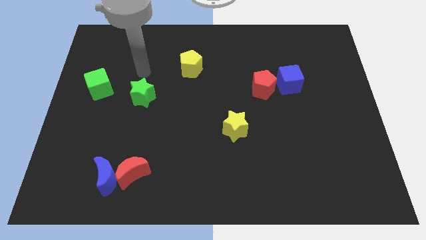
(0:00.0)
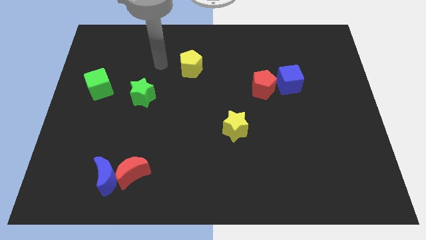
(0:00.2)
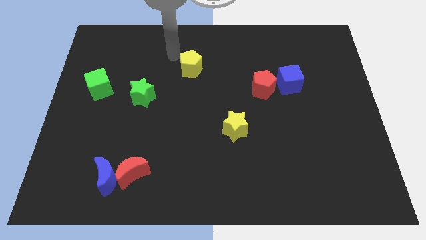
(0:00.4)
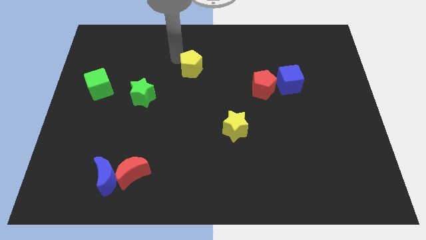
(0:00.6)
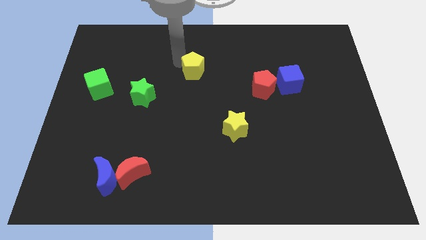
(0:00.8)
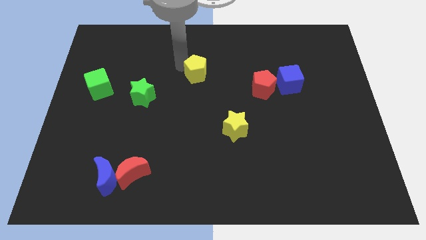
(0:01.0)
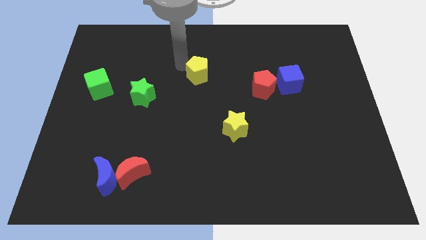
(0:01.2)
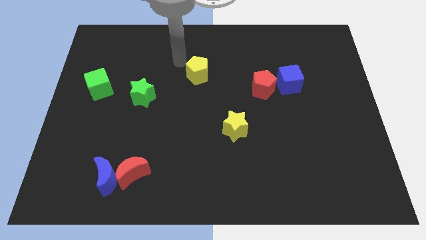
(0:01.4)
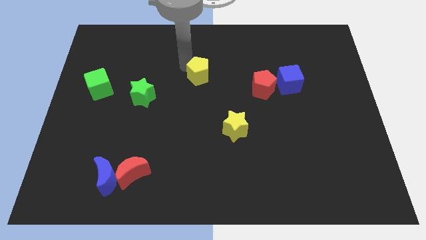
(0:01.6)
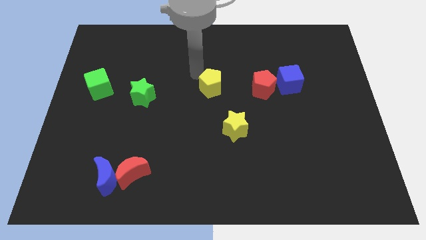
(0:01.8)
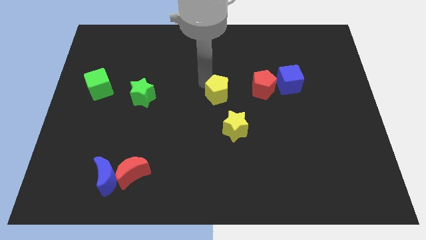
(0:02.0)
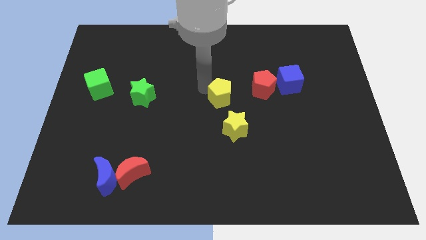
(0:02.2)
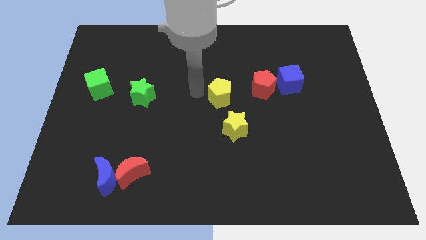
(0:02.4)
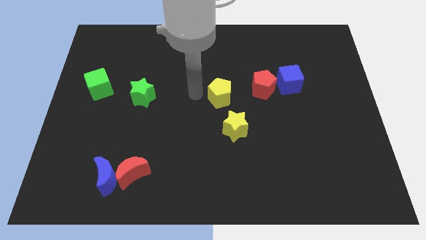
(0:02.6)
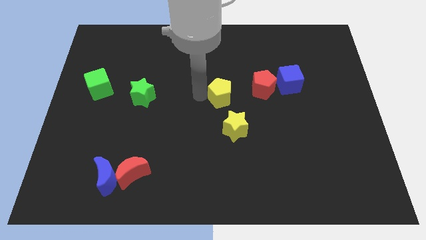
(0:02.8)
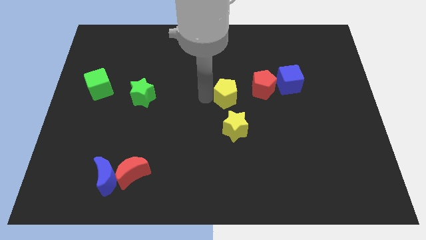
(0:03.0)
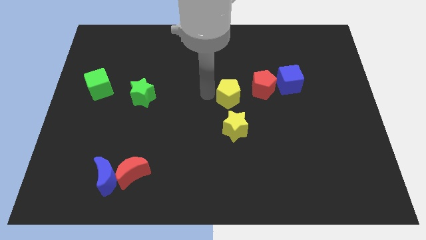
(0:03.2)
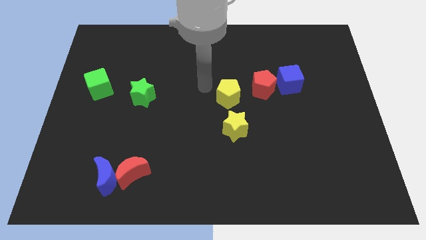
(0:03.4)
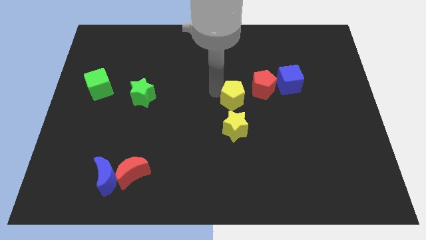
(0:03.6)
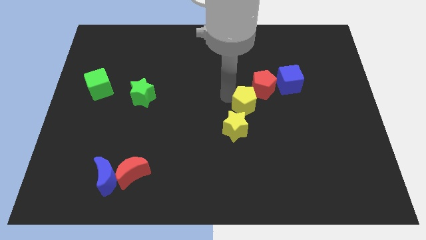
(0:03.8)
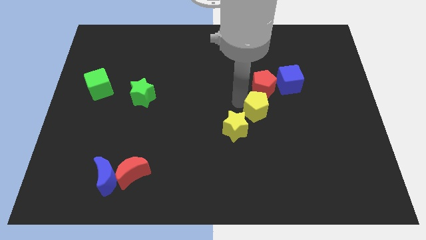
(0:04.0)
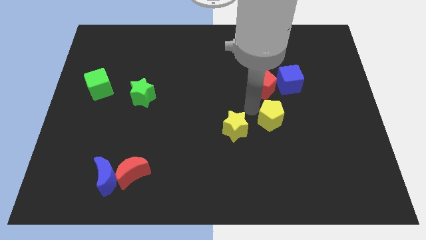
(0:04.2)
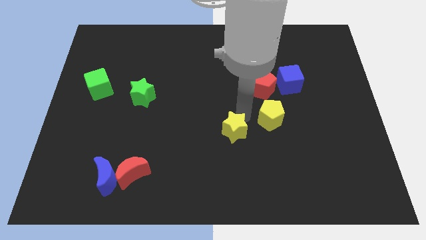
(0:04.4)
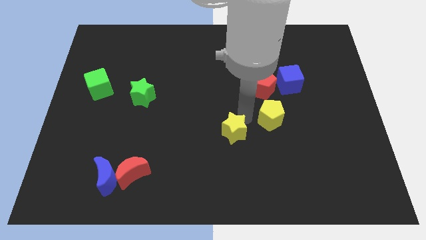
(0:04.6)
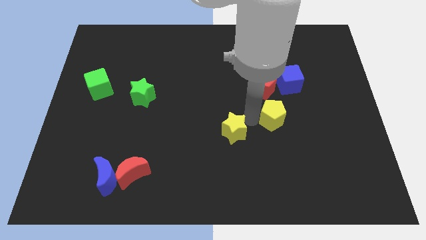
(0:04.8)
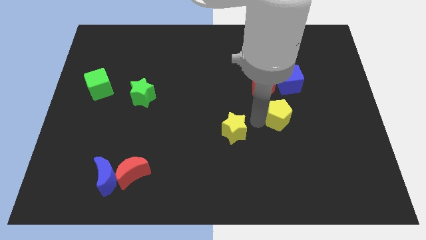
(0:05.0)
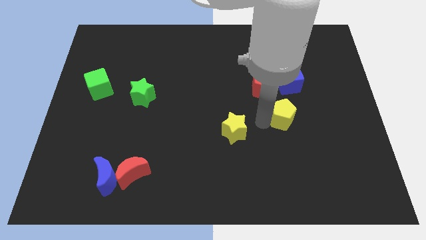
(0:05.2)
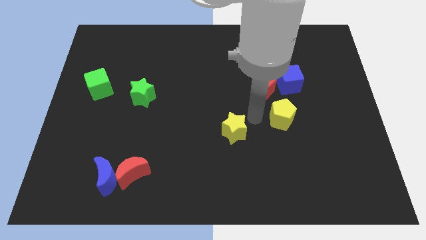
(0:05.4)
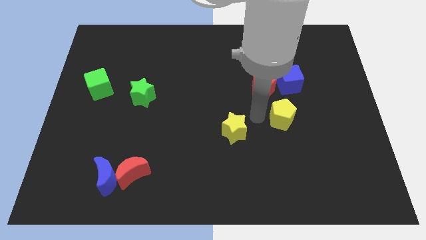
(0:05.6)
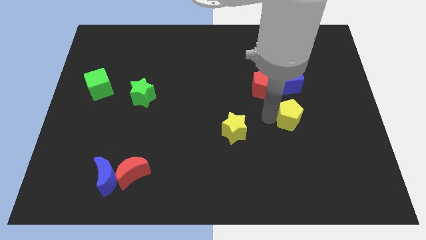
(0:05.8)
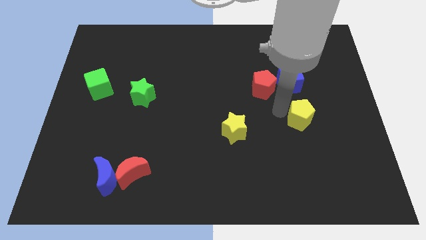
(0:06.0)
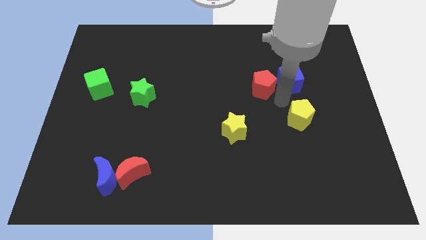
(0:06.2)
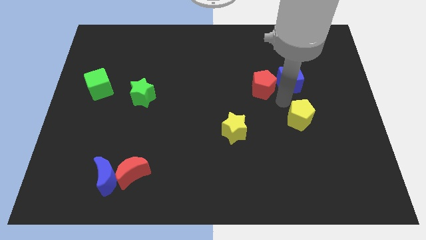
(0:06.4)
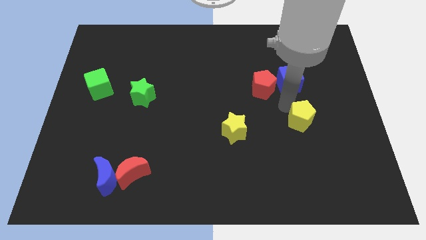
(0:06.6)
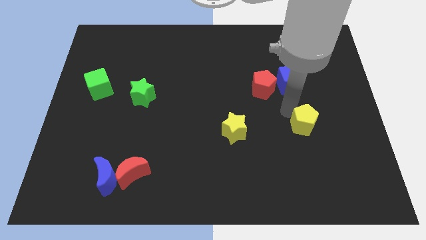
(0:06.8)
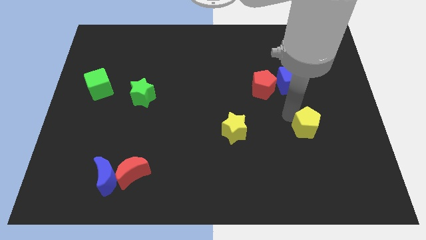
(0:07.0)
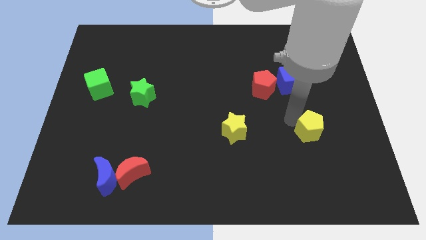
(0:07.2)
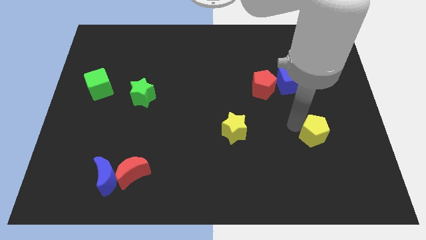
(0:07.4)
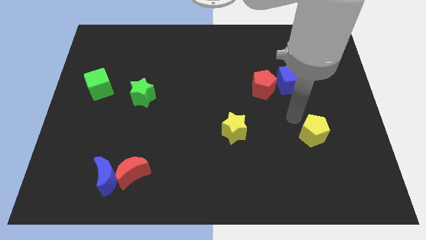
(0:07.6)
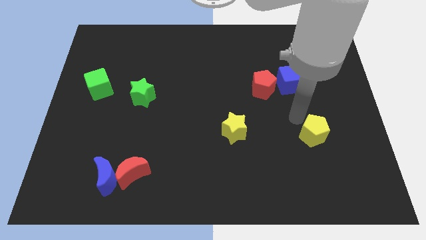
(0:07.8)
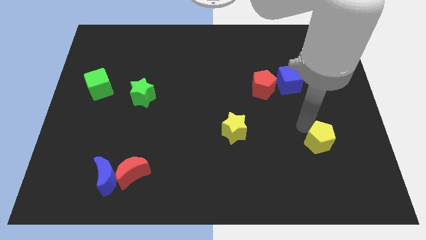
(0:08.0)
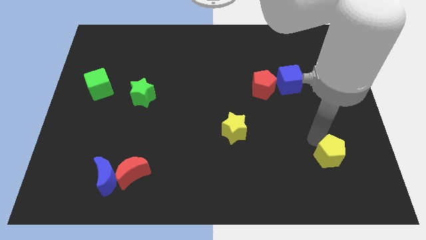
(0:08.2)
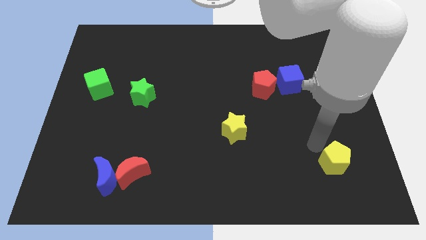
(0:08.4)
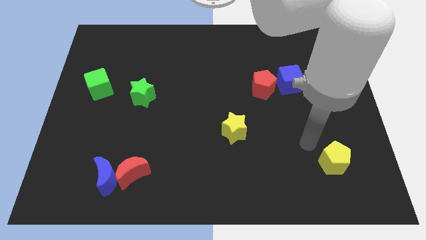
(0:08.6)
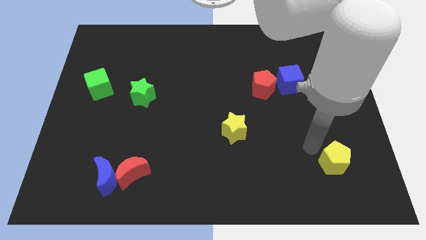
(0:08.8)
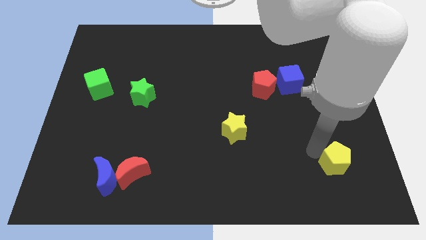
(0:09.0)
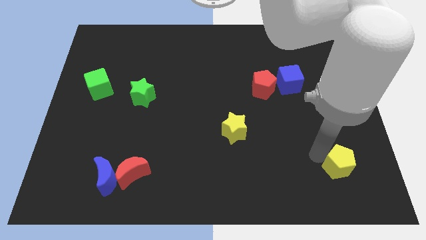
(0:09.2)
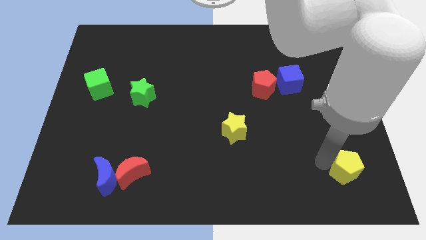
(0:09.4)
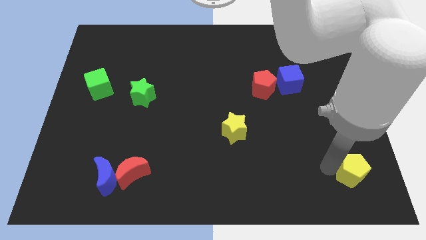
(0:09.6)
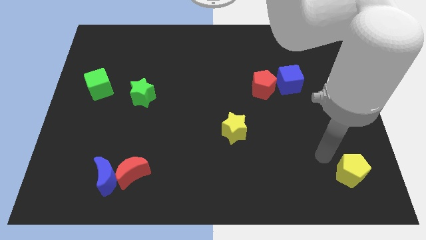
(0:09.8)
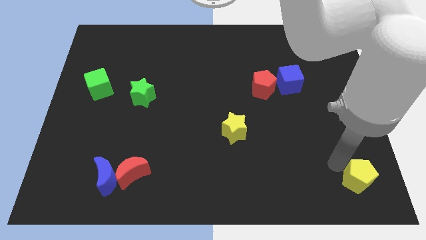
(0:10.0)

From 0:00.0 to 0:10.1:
move the yellow pentagon to the bottom right

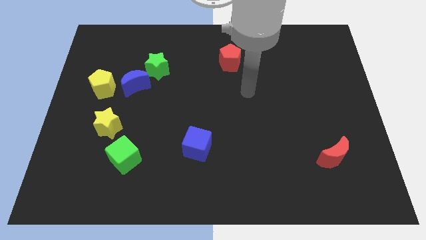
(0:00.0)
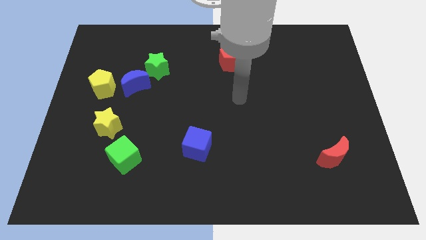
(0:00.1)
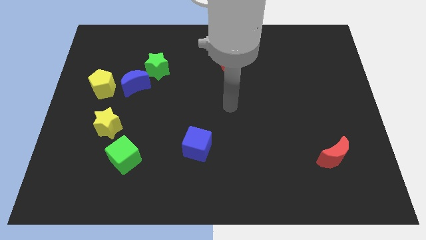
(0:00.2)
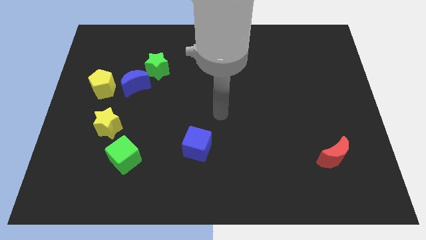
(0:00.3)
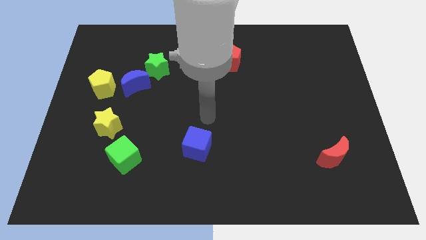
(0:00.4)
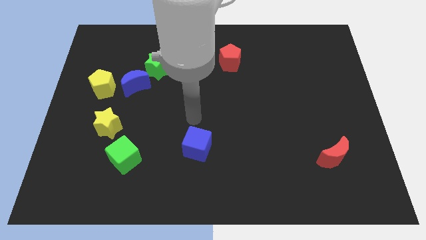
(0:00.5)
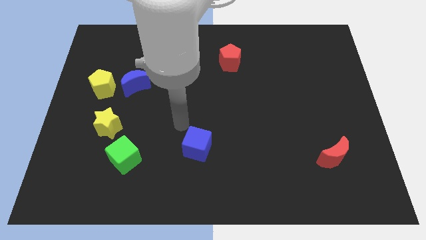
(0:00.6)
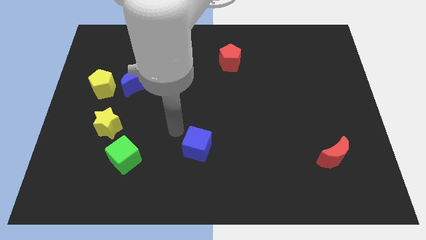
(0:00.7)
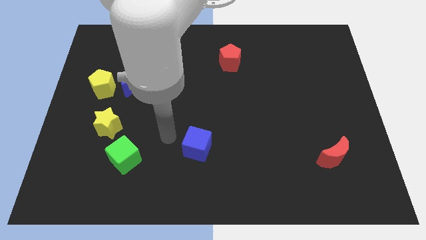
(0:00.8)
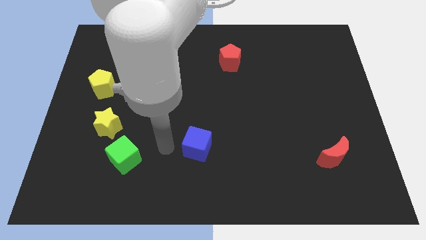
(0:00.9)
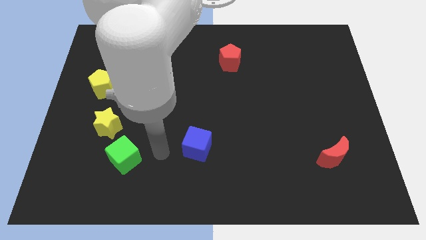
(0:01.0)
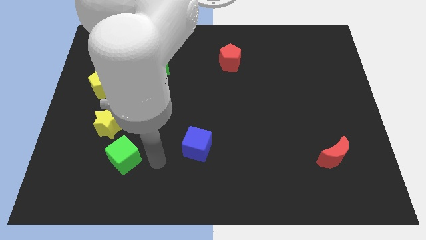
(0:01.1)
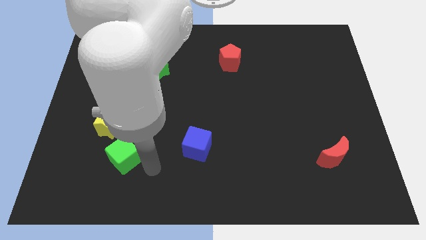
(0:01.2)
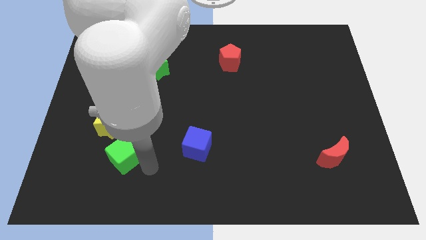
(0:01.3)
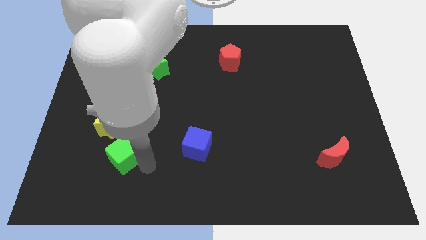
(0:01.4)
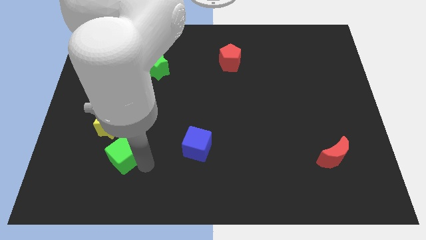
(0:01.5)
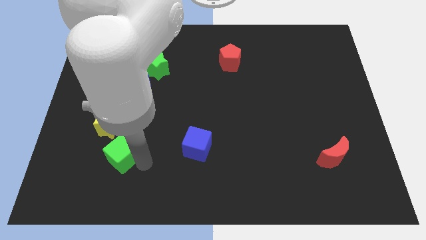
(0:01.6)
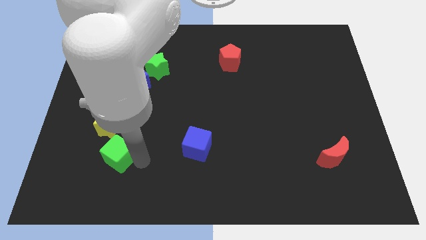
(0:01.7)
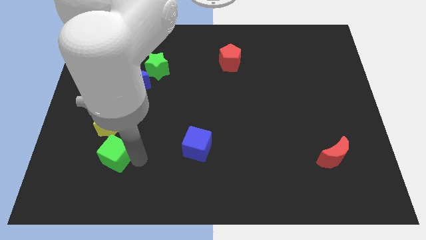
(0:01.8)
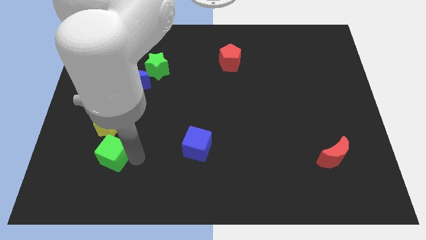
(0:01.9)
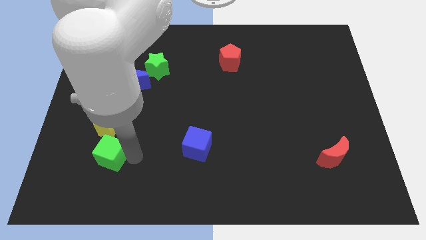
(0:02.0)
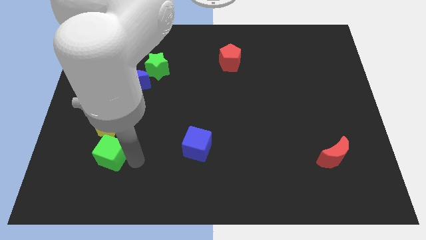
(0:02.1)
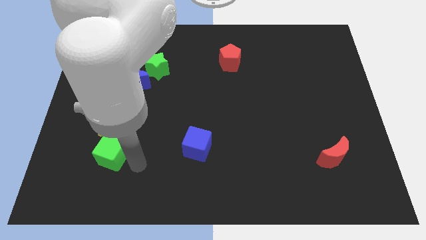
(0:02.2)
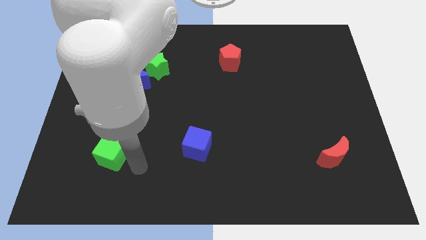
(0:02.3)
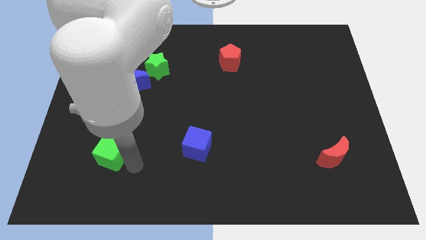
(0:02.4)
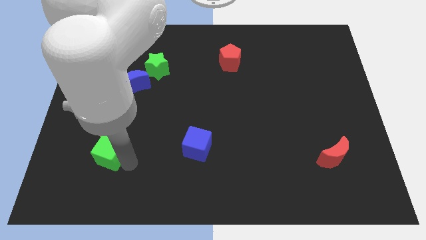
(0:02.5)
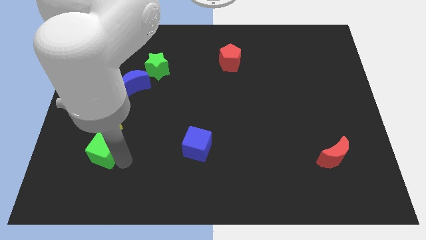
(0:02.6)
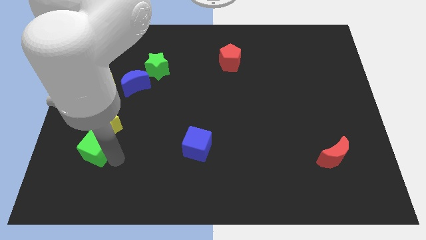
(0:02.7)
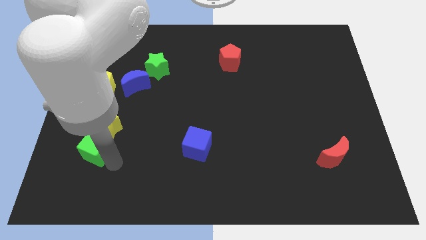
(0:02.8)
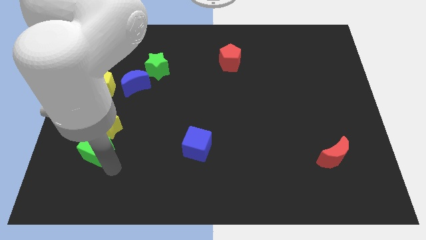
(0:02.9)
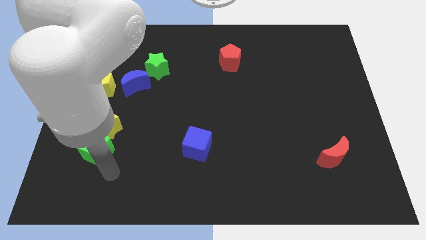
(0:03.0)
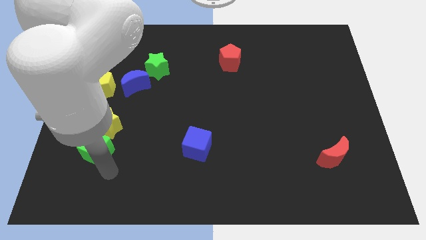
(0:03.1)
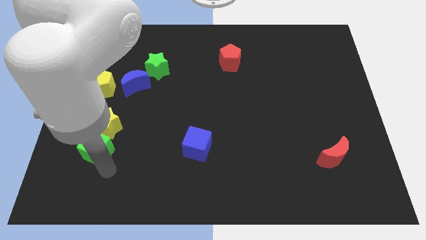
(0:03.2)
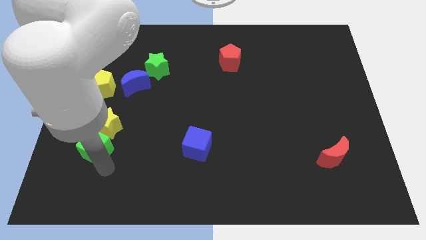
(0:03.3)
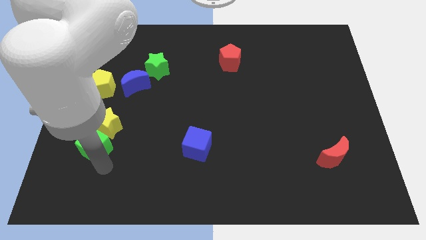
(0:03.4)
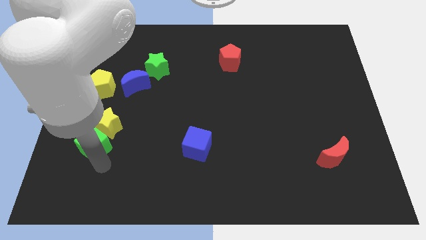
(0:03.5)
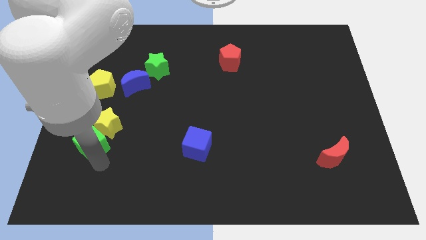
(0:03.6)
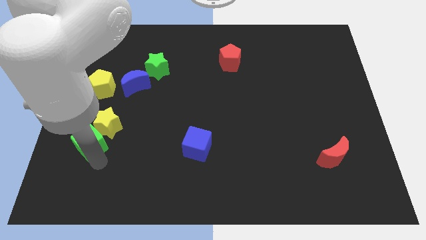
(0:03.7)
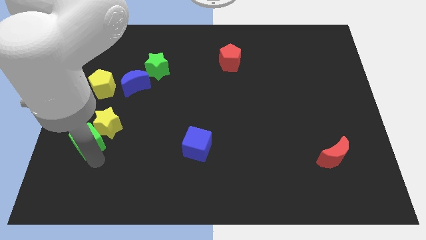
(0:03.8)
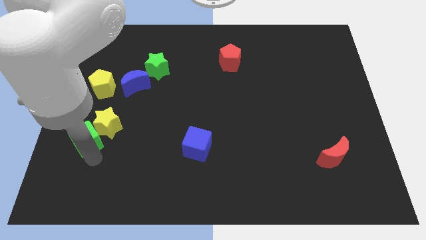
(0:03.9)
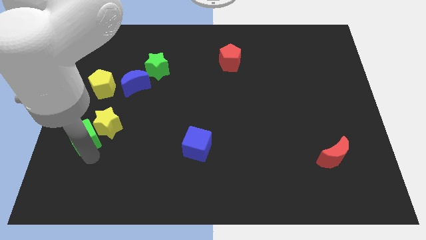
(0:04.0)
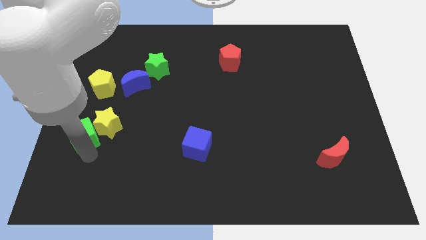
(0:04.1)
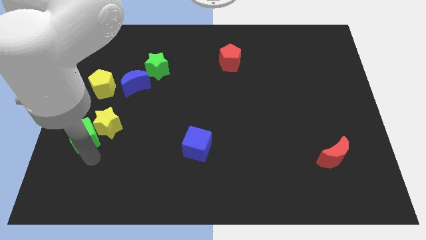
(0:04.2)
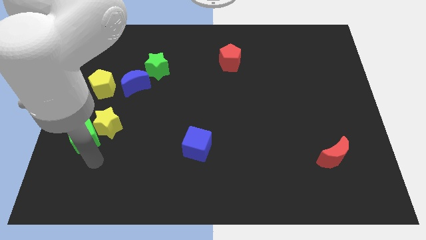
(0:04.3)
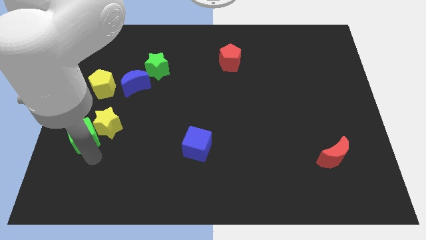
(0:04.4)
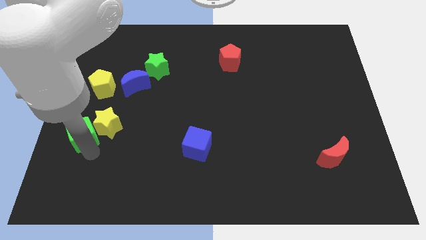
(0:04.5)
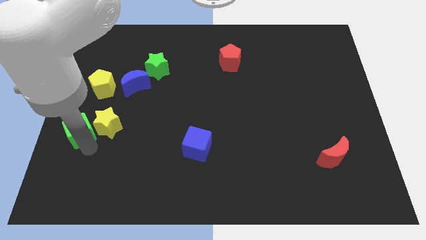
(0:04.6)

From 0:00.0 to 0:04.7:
move the green cube to the left side of the board
